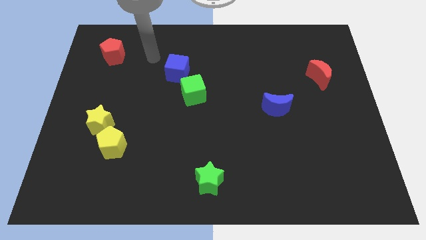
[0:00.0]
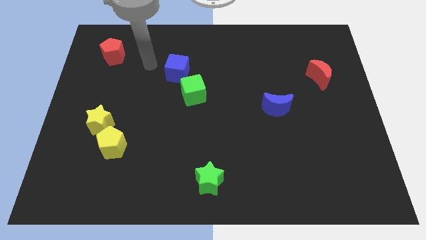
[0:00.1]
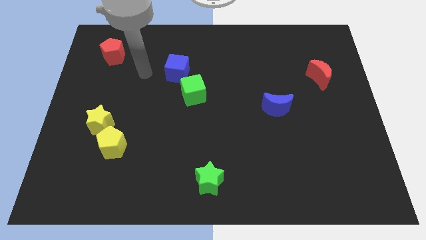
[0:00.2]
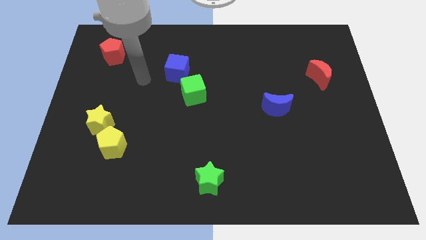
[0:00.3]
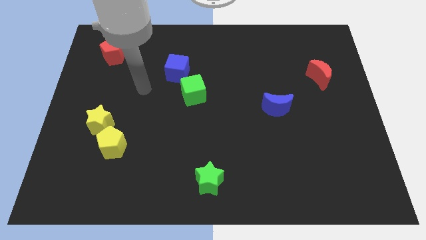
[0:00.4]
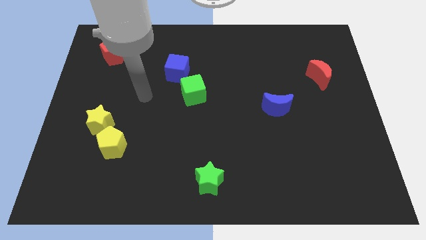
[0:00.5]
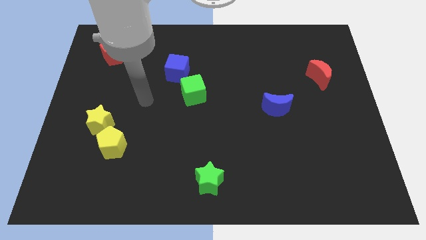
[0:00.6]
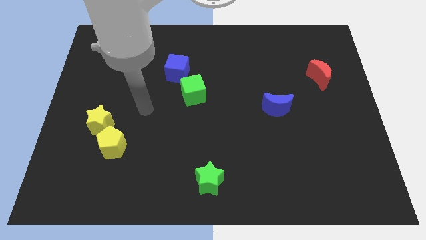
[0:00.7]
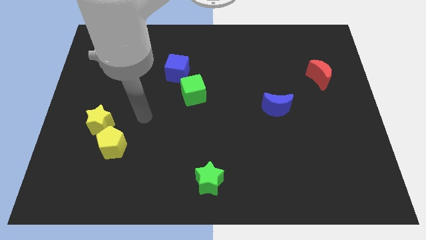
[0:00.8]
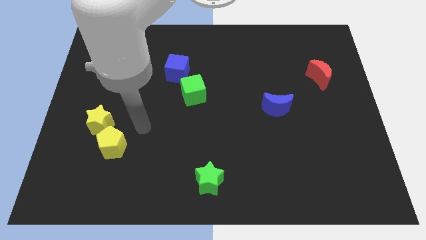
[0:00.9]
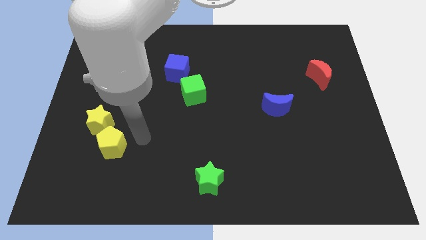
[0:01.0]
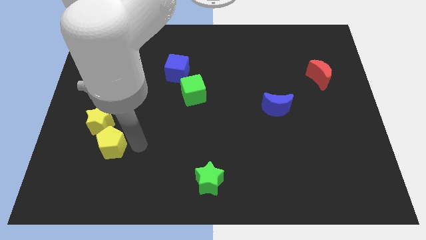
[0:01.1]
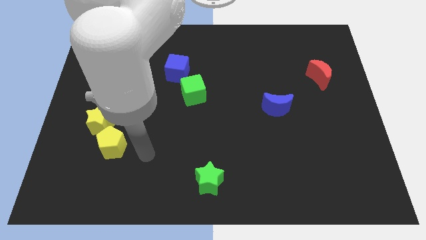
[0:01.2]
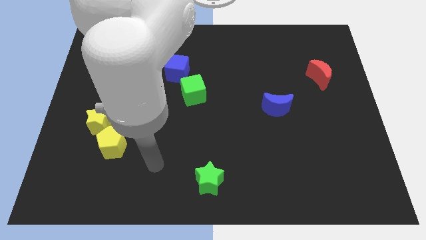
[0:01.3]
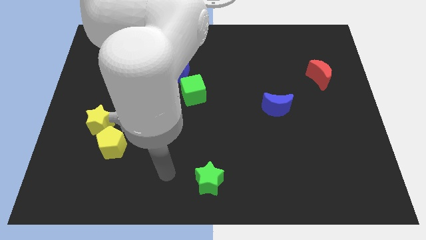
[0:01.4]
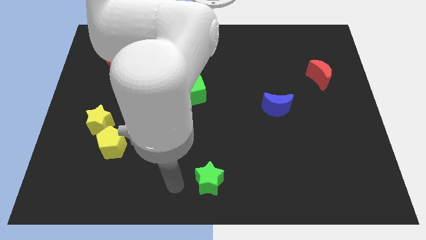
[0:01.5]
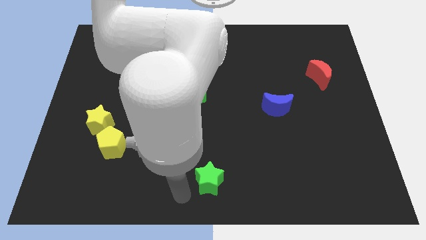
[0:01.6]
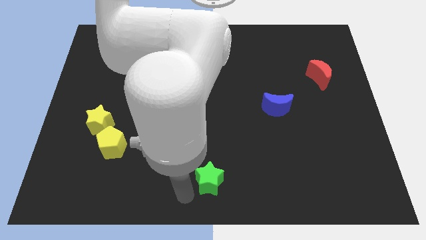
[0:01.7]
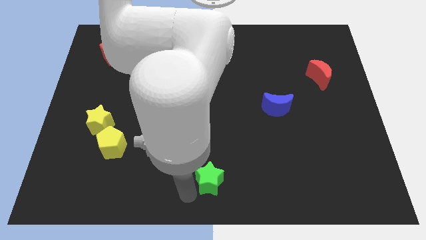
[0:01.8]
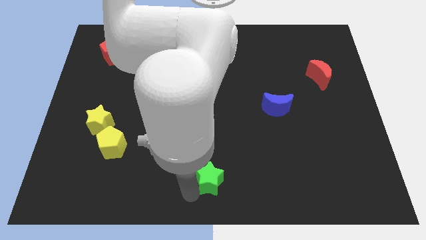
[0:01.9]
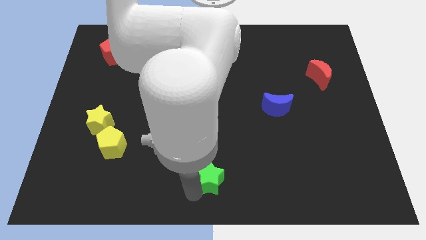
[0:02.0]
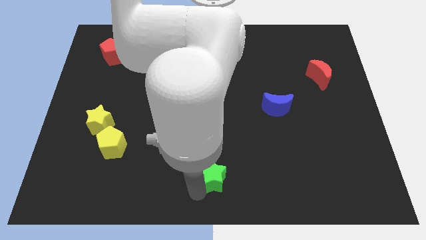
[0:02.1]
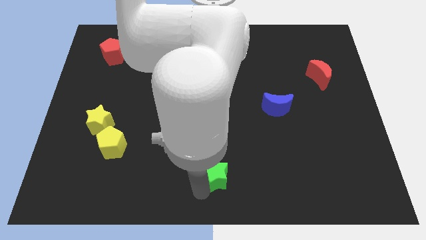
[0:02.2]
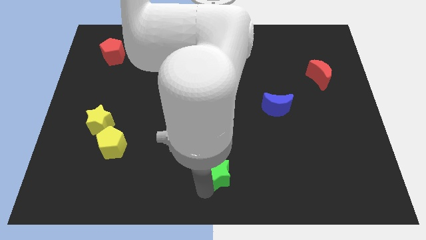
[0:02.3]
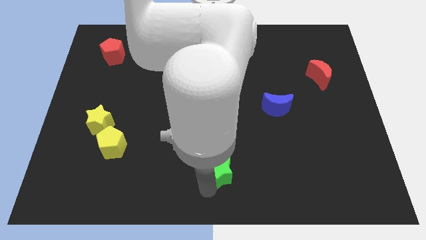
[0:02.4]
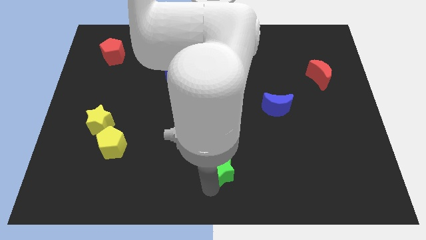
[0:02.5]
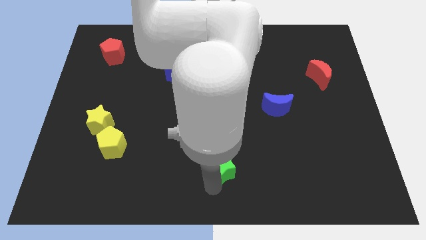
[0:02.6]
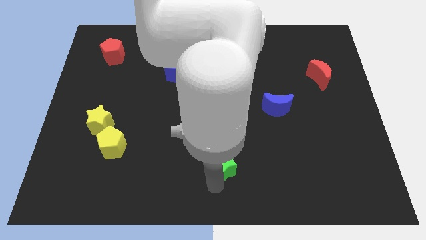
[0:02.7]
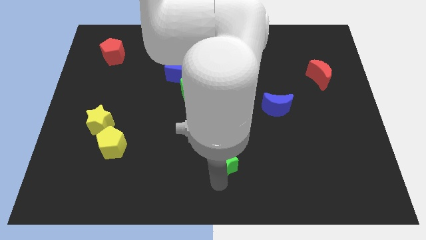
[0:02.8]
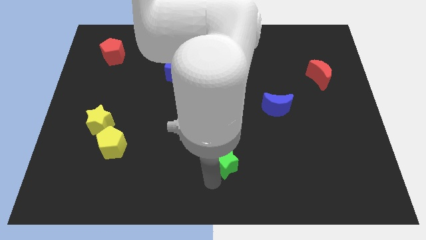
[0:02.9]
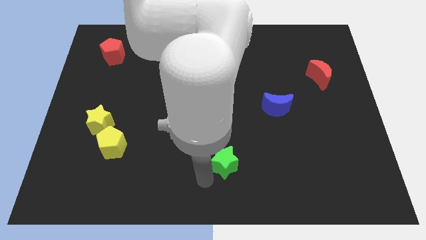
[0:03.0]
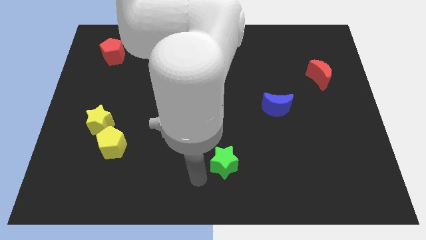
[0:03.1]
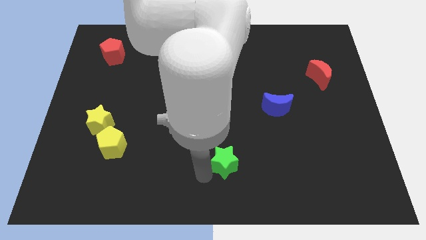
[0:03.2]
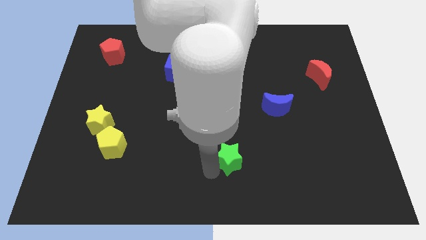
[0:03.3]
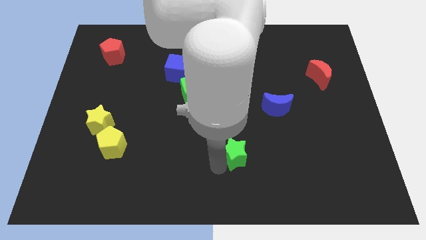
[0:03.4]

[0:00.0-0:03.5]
slightly push the green star upwards and to the right diagonally

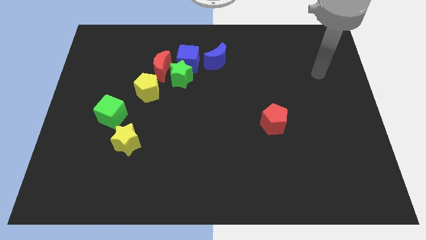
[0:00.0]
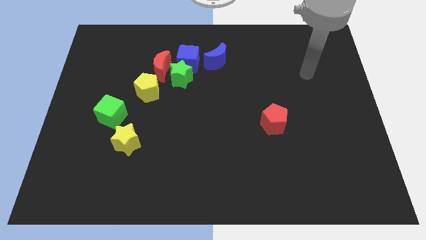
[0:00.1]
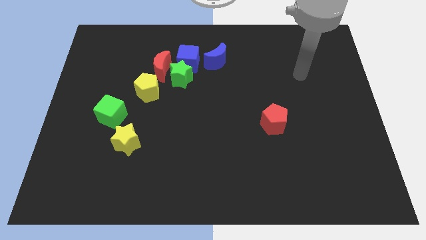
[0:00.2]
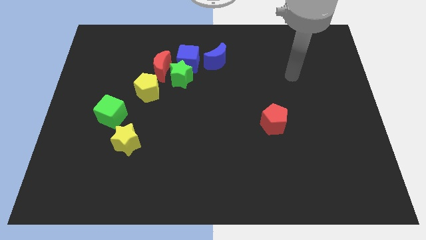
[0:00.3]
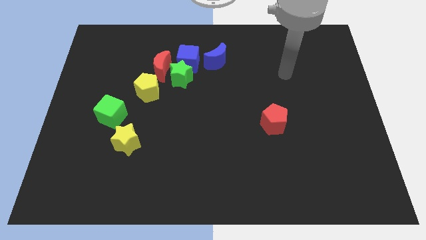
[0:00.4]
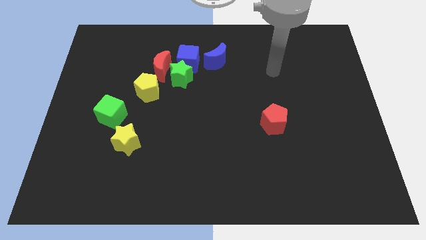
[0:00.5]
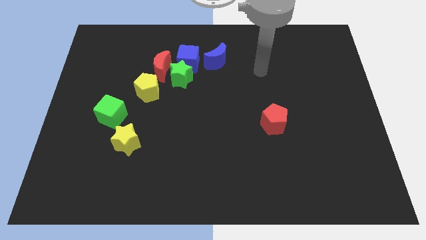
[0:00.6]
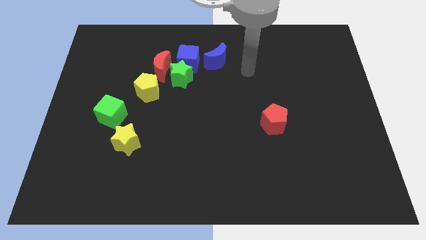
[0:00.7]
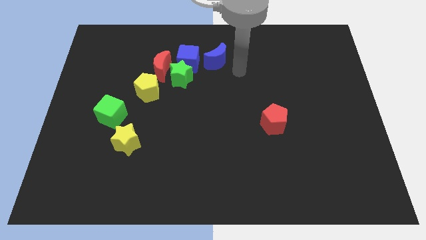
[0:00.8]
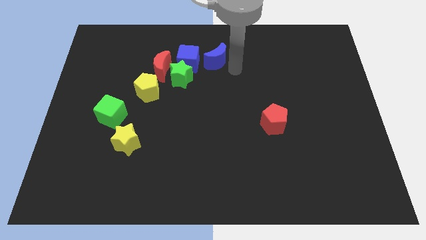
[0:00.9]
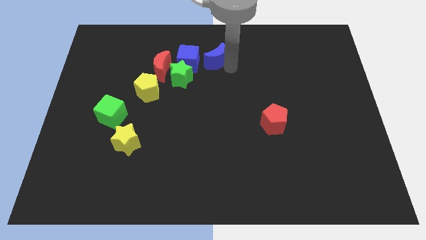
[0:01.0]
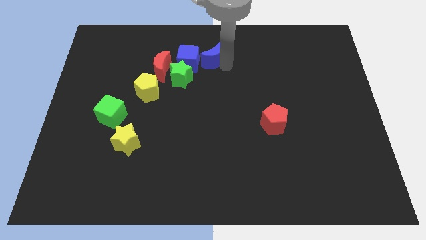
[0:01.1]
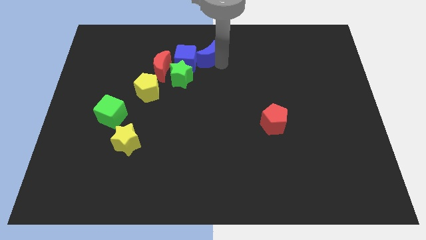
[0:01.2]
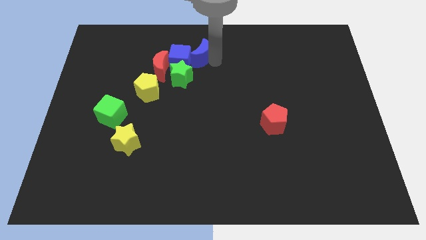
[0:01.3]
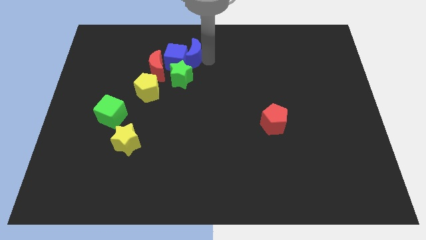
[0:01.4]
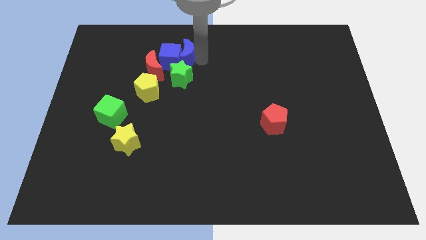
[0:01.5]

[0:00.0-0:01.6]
slightly push the blue moon to the left

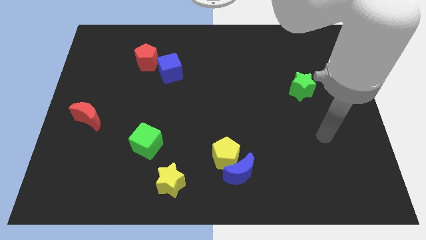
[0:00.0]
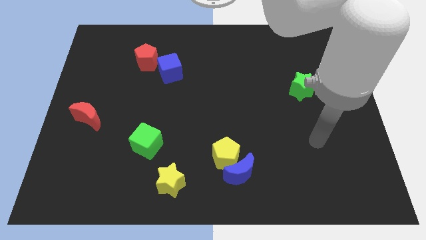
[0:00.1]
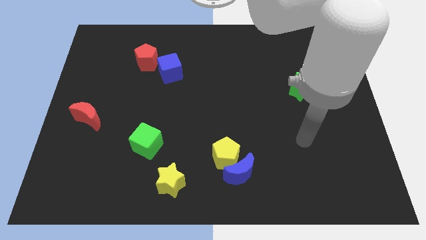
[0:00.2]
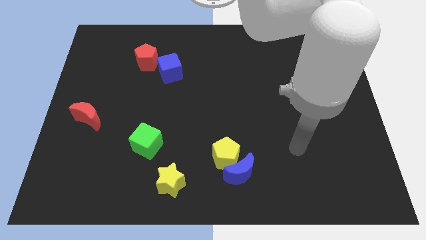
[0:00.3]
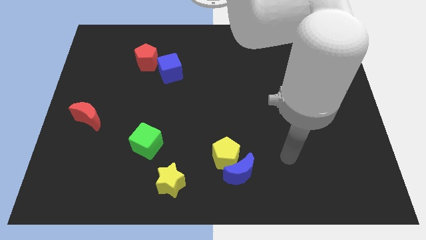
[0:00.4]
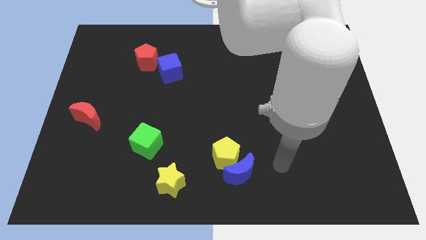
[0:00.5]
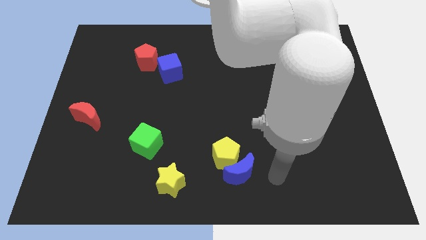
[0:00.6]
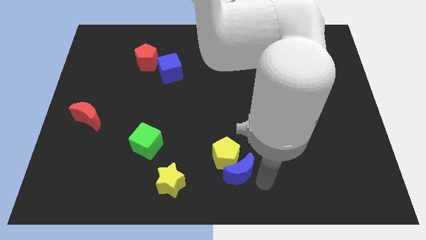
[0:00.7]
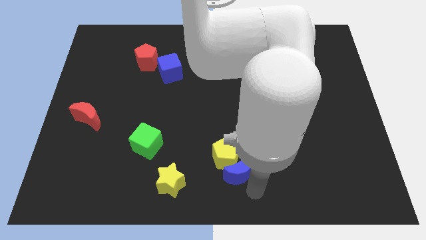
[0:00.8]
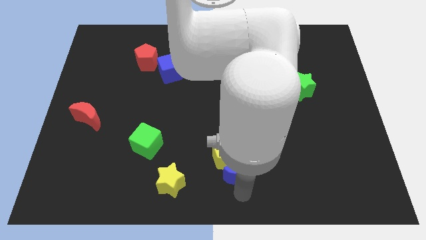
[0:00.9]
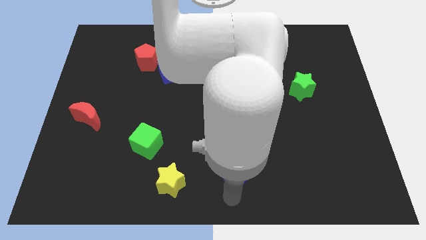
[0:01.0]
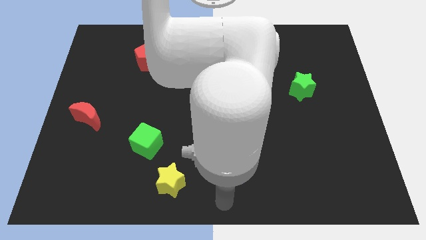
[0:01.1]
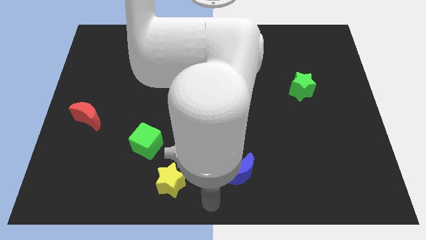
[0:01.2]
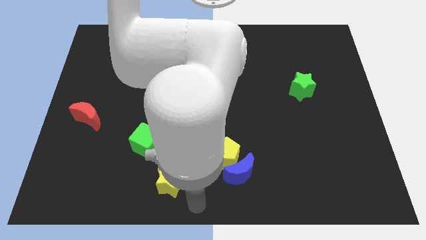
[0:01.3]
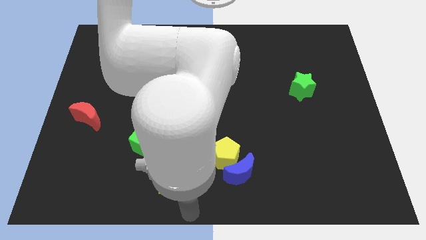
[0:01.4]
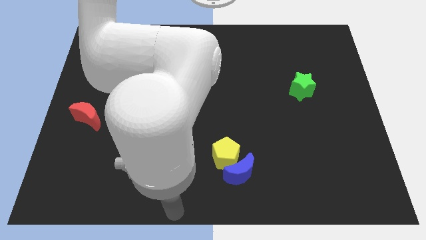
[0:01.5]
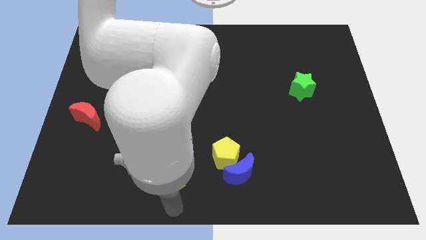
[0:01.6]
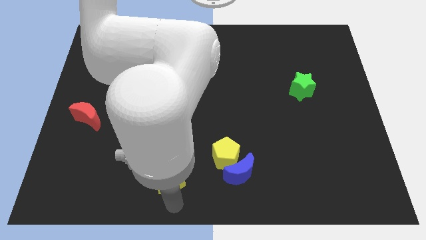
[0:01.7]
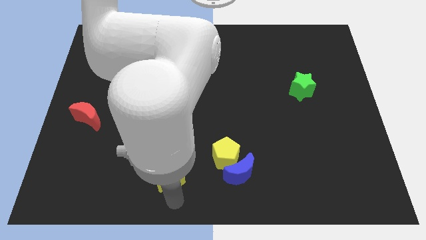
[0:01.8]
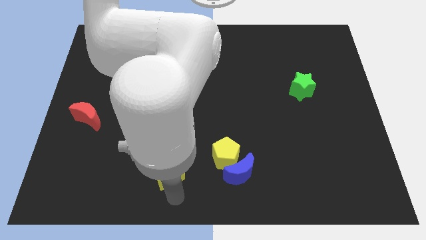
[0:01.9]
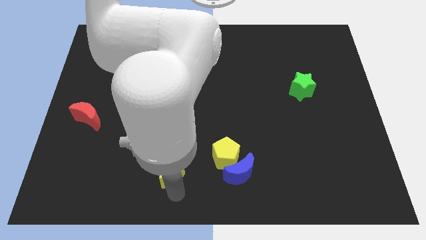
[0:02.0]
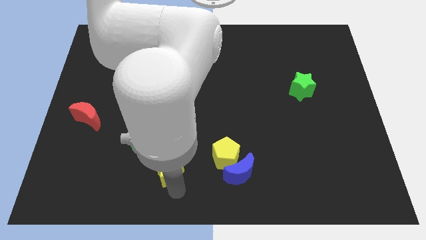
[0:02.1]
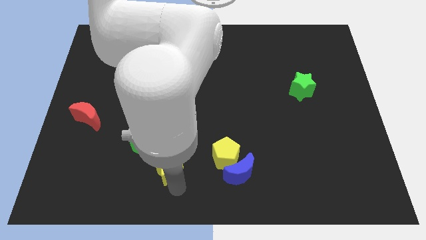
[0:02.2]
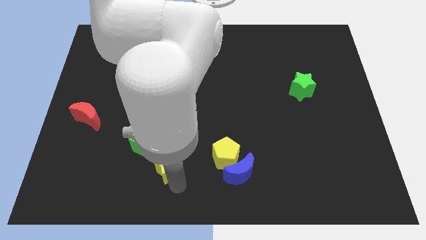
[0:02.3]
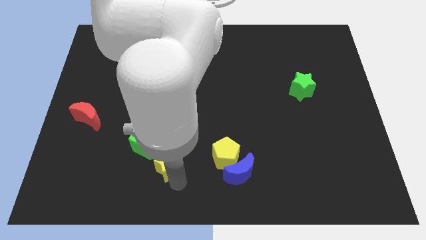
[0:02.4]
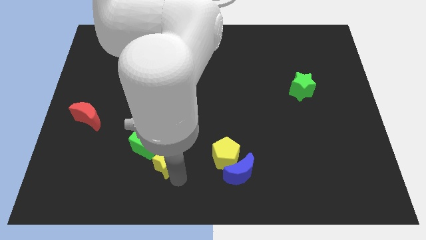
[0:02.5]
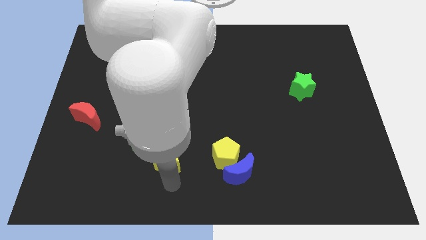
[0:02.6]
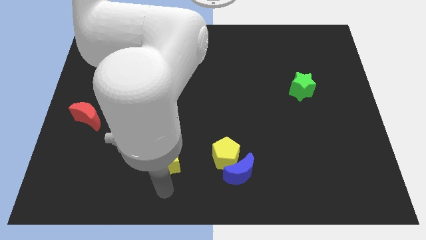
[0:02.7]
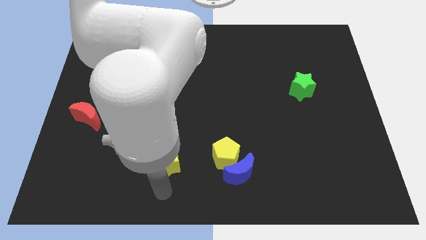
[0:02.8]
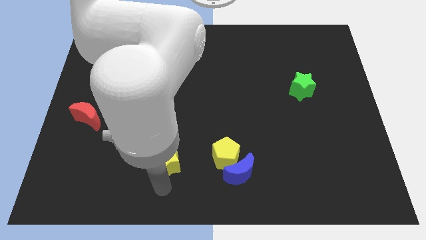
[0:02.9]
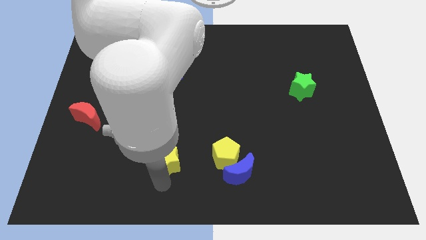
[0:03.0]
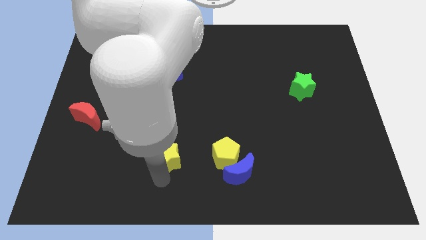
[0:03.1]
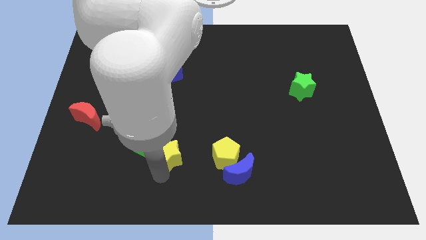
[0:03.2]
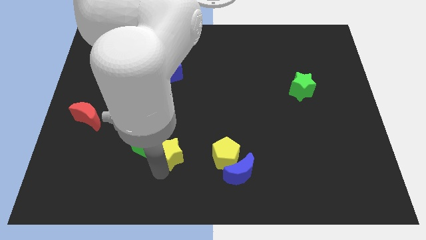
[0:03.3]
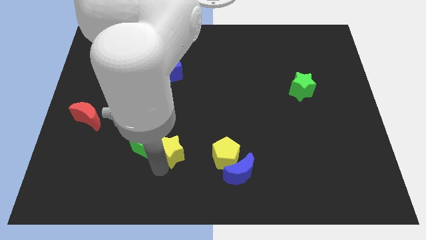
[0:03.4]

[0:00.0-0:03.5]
slide the yellow star up a bit
